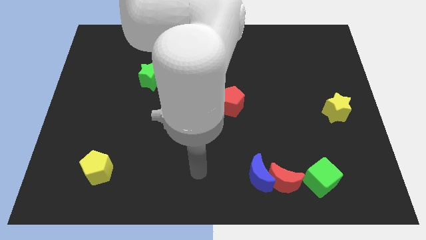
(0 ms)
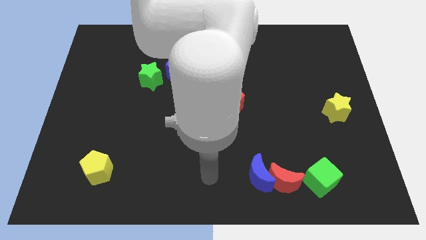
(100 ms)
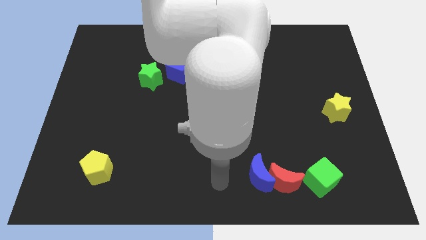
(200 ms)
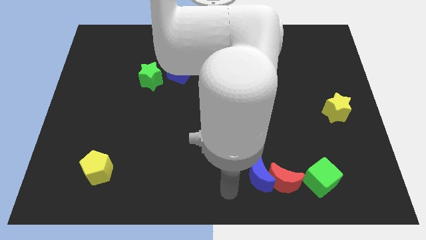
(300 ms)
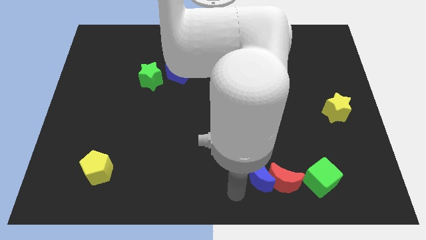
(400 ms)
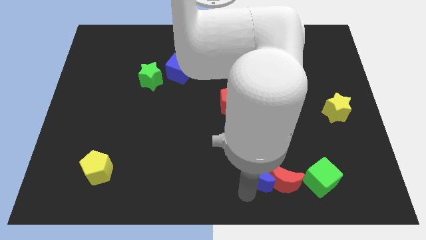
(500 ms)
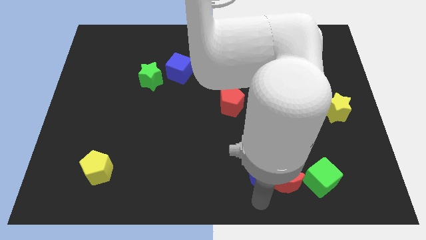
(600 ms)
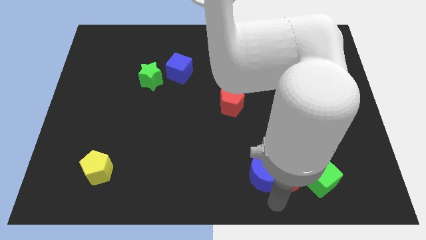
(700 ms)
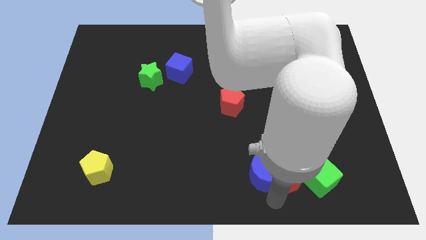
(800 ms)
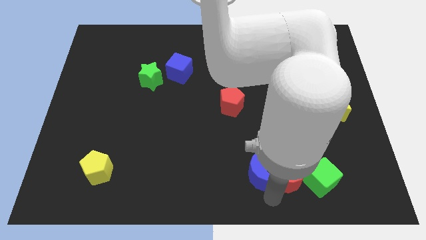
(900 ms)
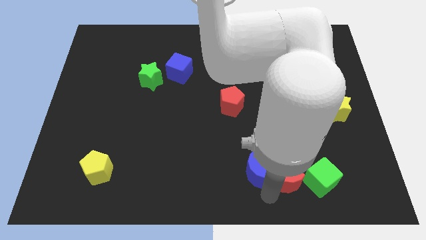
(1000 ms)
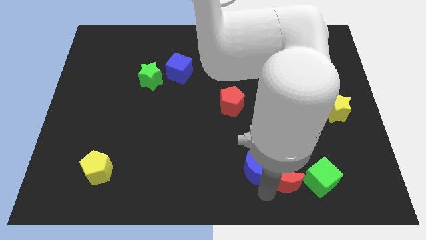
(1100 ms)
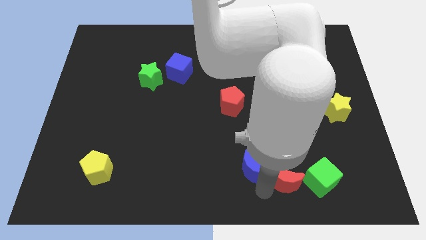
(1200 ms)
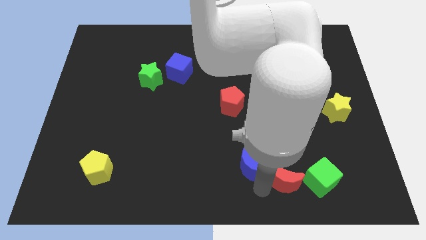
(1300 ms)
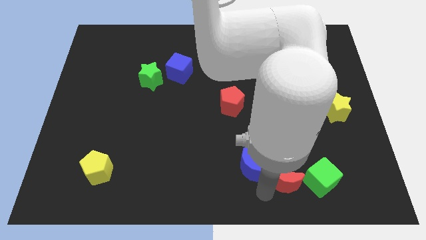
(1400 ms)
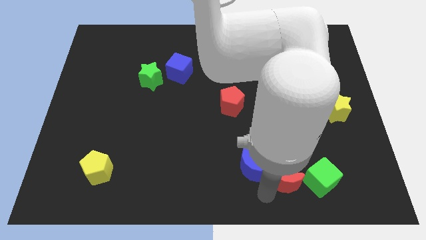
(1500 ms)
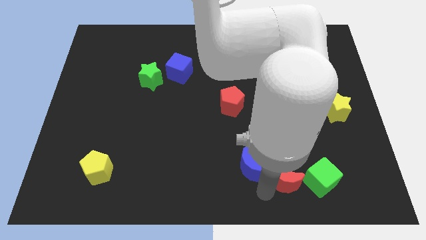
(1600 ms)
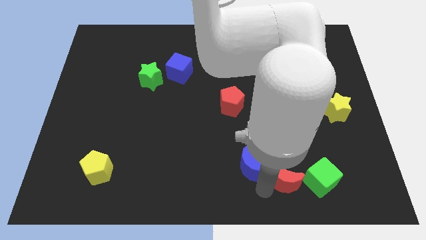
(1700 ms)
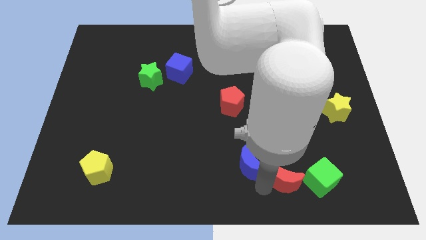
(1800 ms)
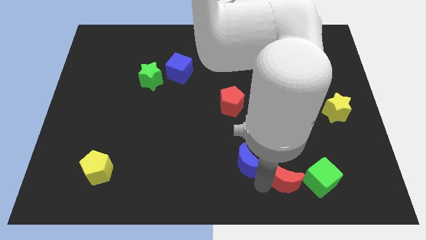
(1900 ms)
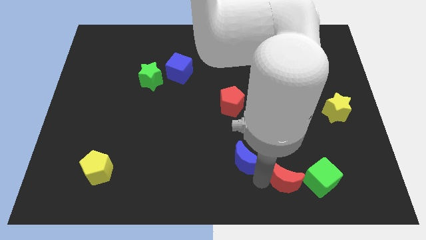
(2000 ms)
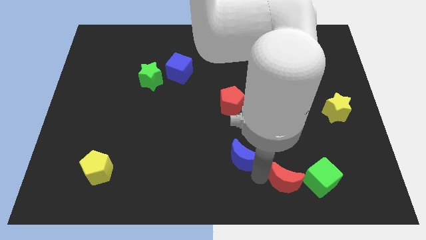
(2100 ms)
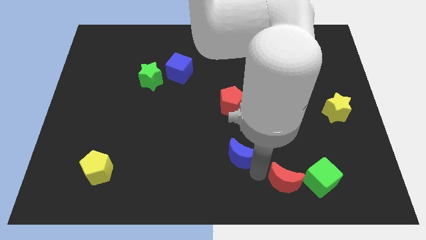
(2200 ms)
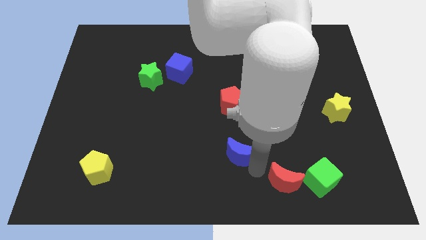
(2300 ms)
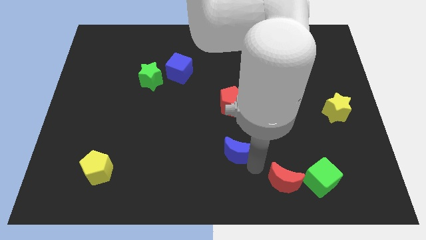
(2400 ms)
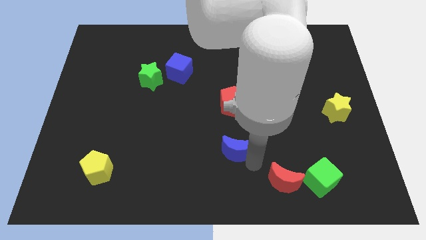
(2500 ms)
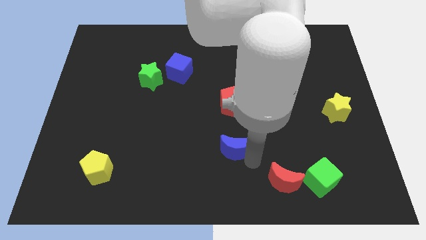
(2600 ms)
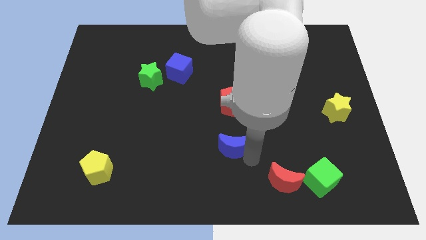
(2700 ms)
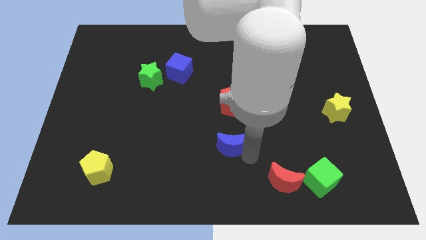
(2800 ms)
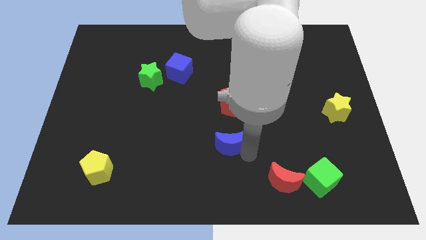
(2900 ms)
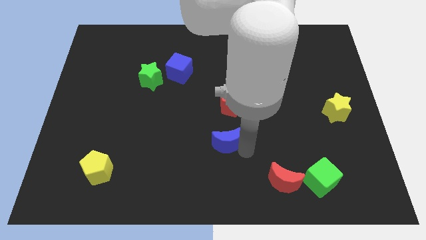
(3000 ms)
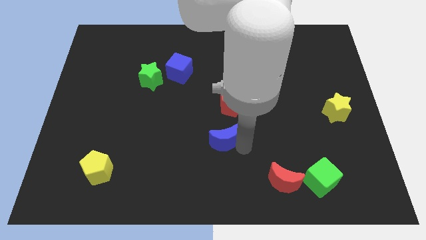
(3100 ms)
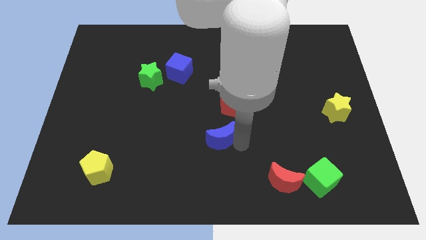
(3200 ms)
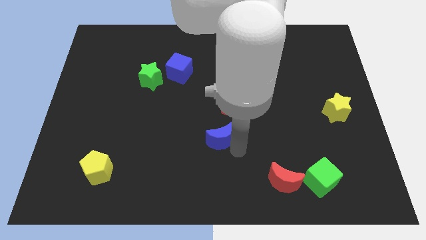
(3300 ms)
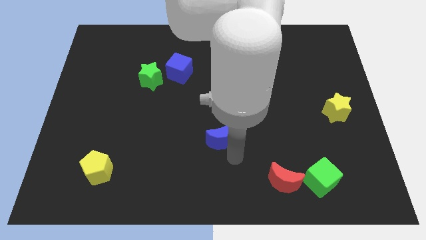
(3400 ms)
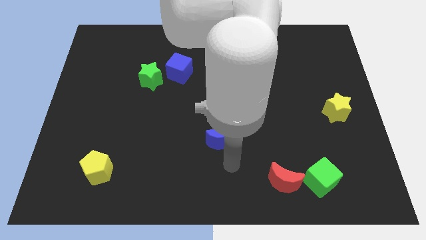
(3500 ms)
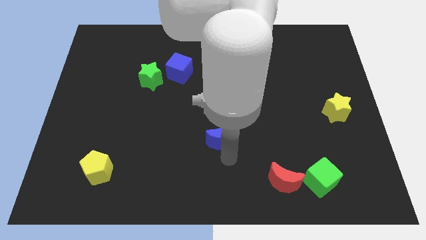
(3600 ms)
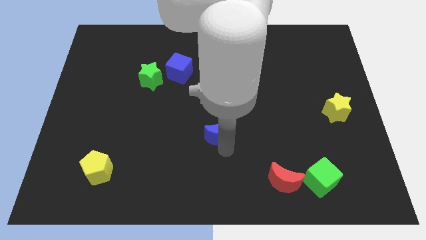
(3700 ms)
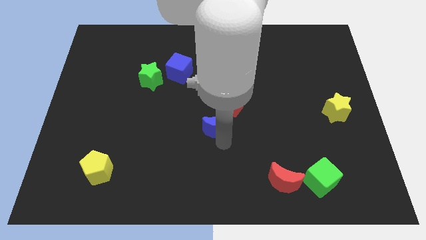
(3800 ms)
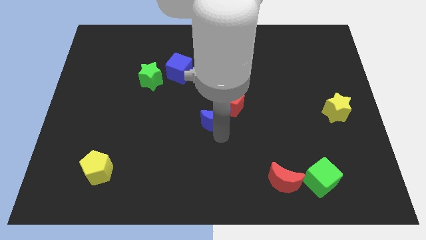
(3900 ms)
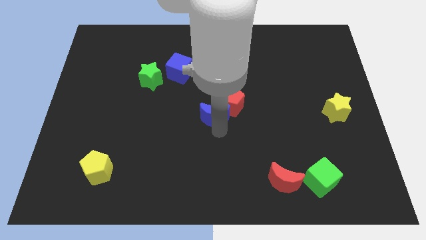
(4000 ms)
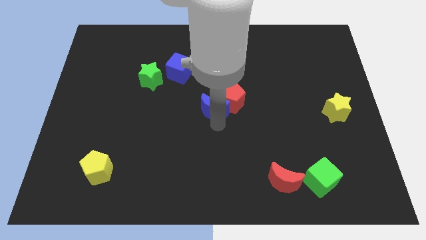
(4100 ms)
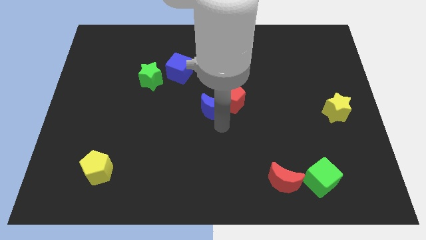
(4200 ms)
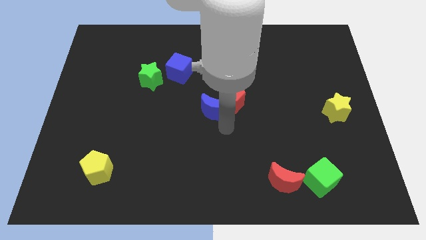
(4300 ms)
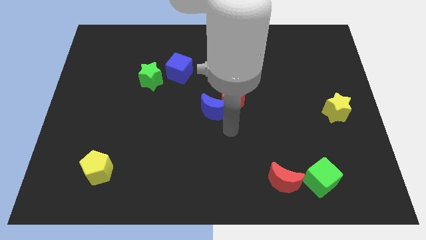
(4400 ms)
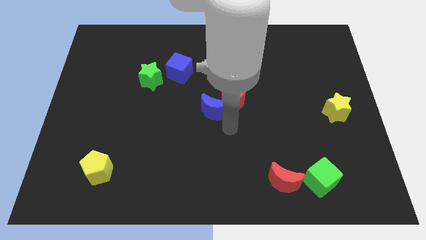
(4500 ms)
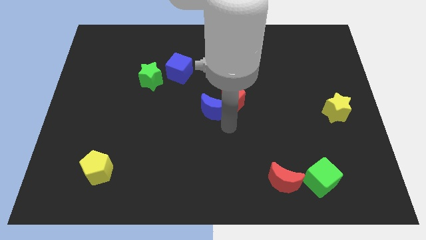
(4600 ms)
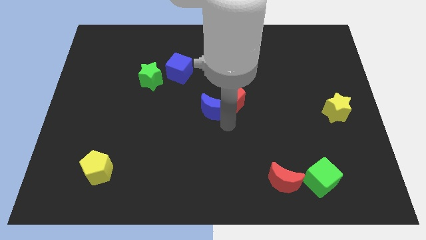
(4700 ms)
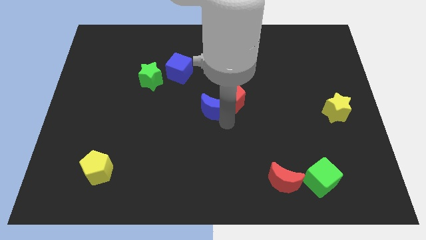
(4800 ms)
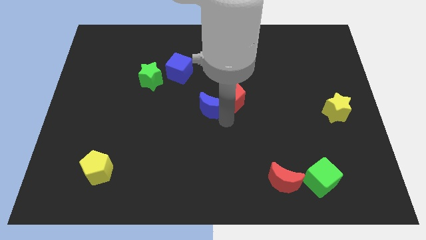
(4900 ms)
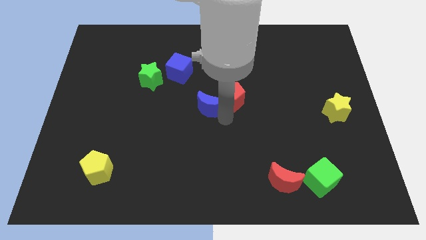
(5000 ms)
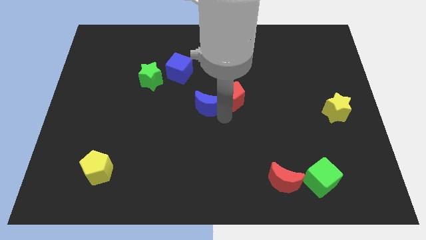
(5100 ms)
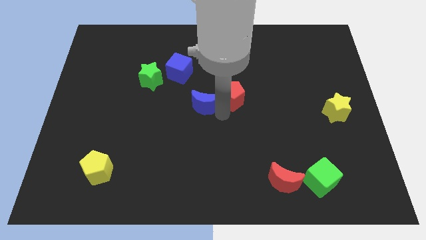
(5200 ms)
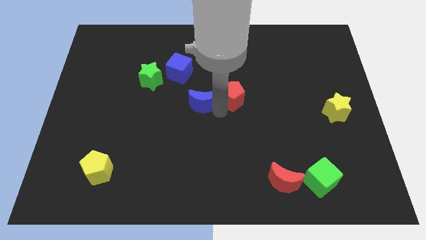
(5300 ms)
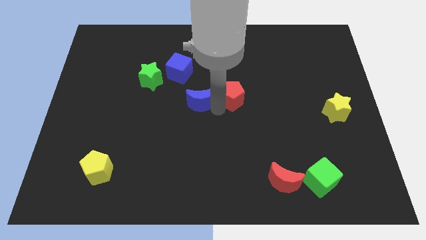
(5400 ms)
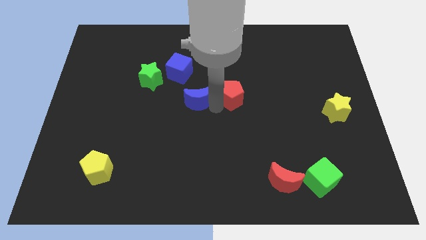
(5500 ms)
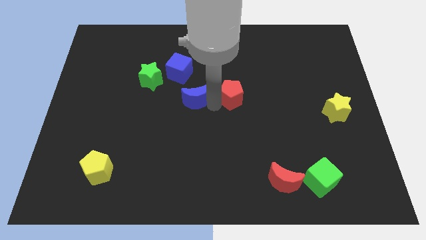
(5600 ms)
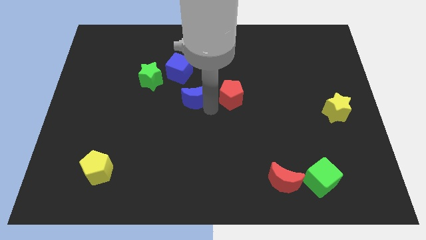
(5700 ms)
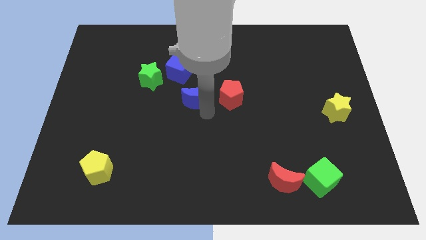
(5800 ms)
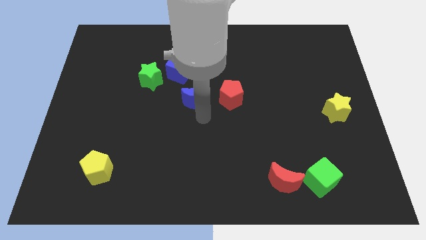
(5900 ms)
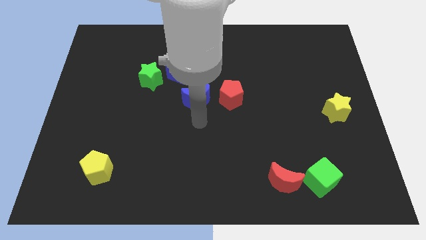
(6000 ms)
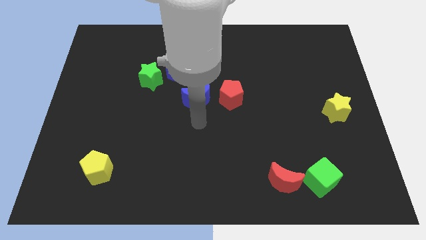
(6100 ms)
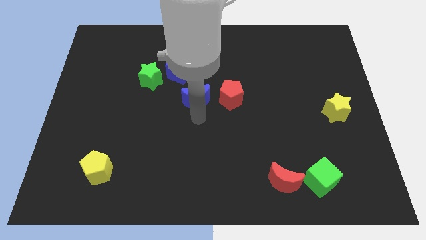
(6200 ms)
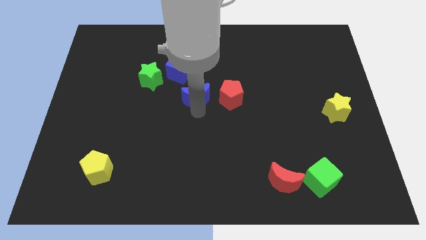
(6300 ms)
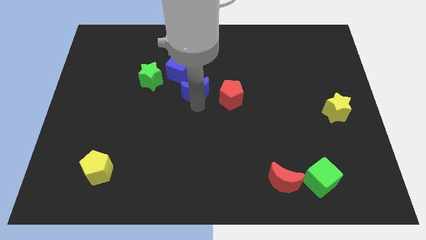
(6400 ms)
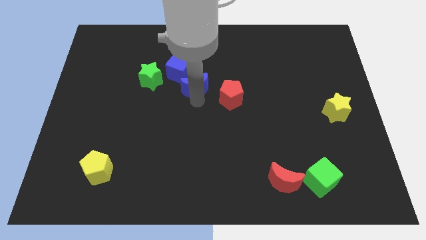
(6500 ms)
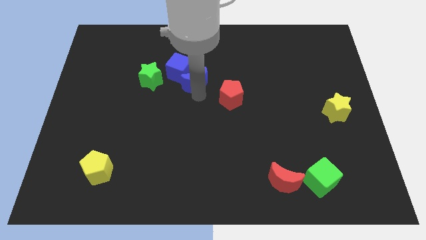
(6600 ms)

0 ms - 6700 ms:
slide the blue moon to the blue cube

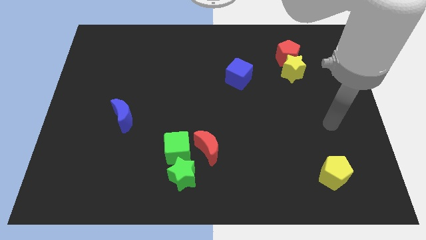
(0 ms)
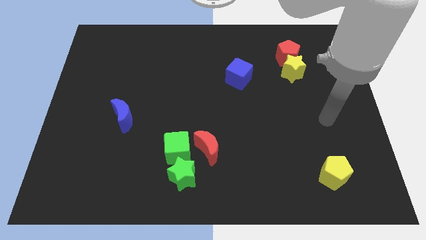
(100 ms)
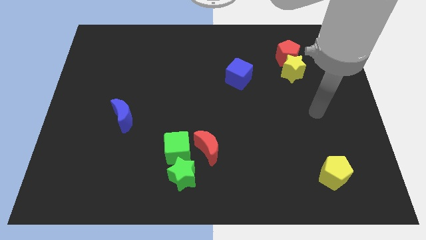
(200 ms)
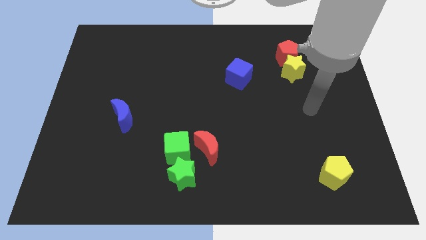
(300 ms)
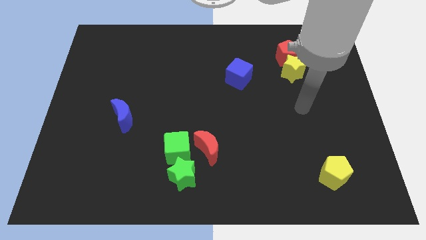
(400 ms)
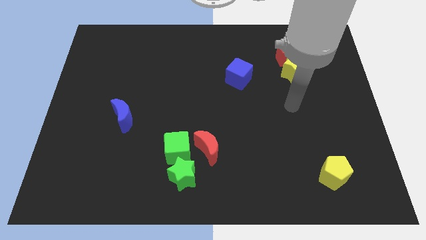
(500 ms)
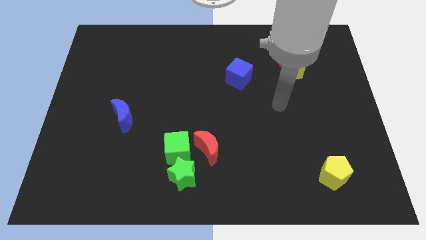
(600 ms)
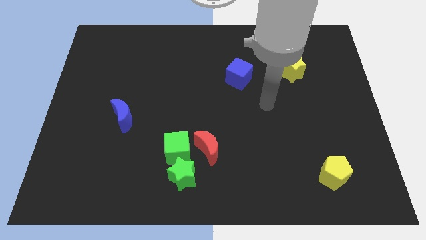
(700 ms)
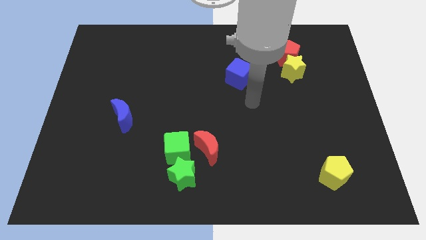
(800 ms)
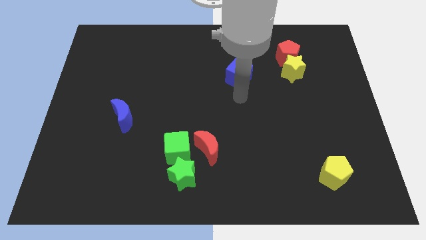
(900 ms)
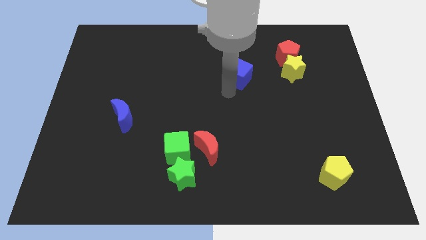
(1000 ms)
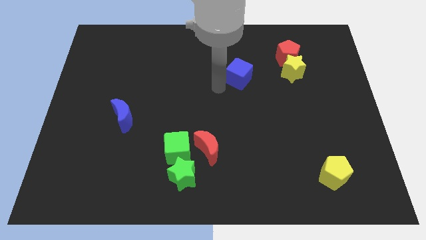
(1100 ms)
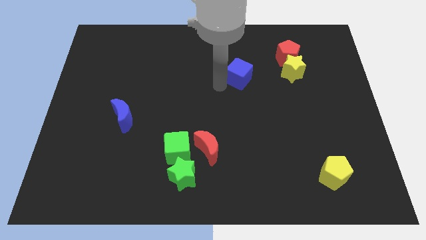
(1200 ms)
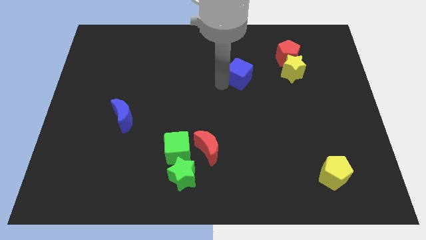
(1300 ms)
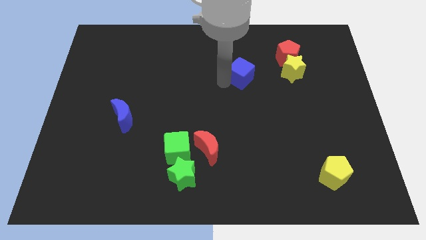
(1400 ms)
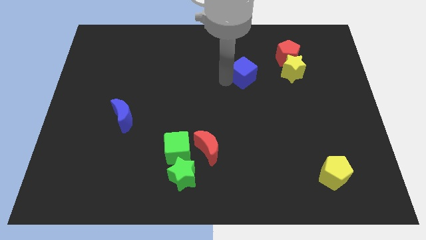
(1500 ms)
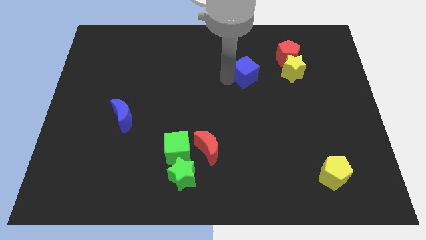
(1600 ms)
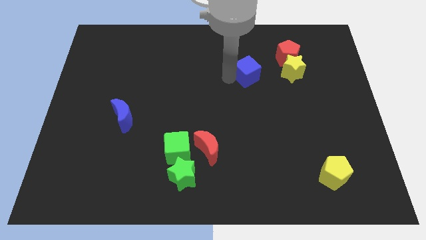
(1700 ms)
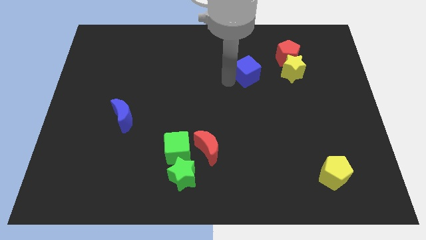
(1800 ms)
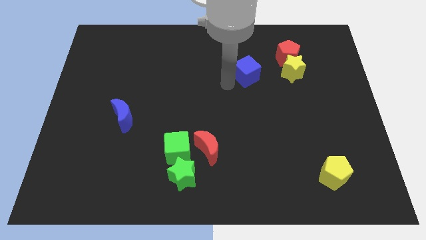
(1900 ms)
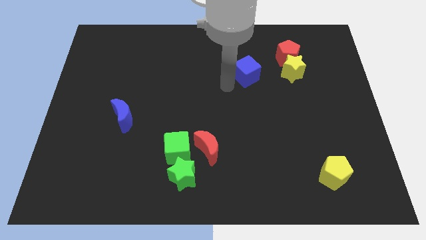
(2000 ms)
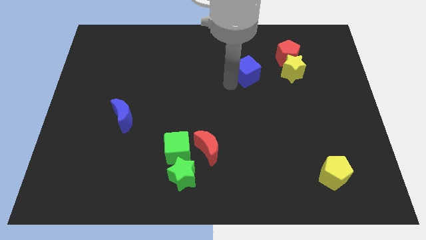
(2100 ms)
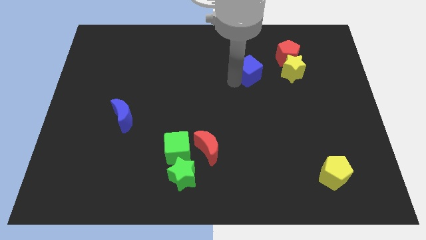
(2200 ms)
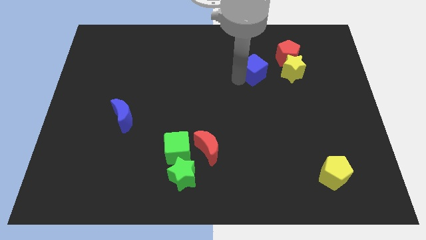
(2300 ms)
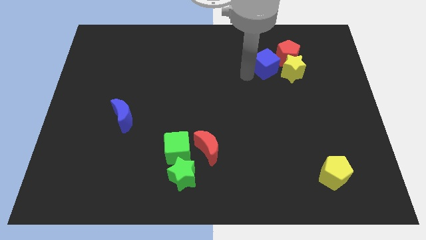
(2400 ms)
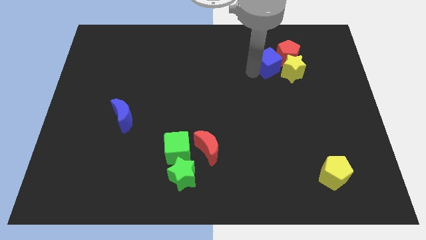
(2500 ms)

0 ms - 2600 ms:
push the blue cube close to the red pentagon
